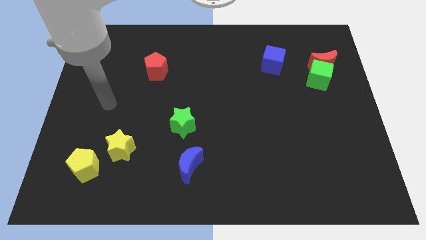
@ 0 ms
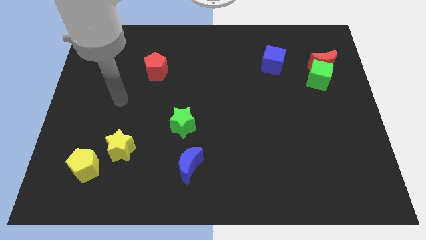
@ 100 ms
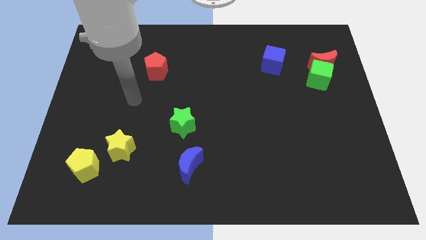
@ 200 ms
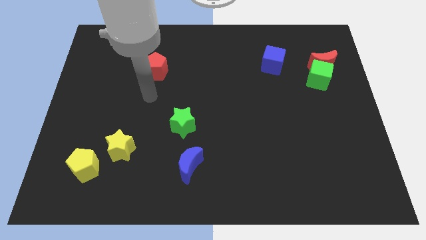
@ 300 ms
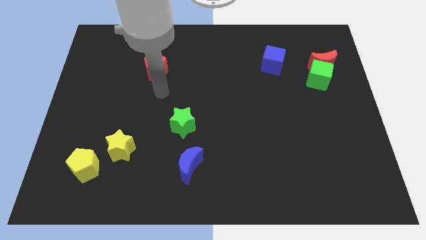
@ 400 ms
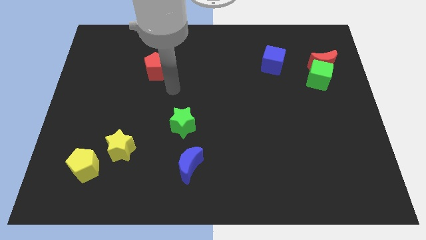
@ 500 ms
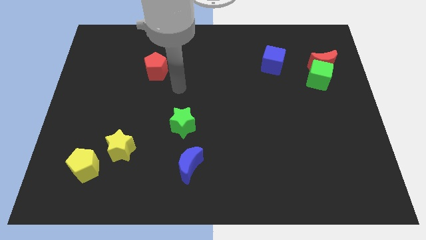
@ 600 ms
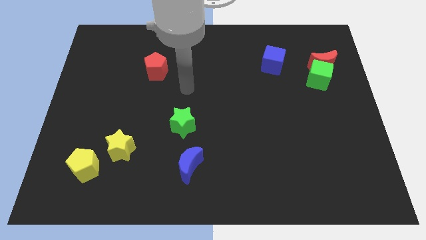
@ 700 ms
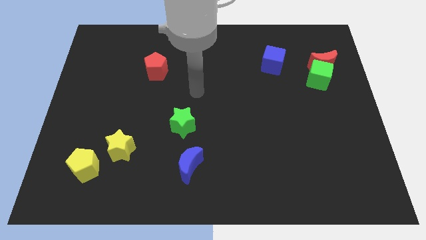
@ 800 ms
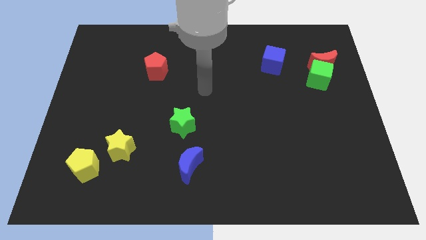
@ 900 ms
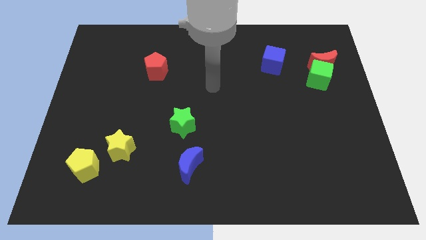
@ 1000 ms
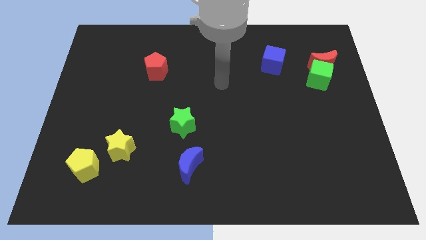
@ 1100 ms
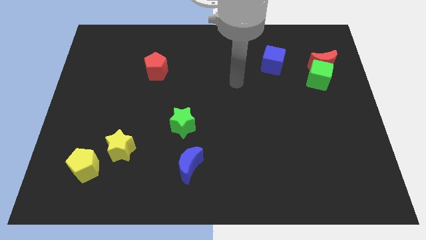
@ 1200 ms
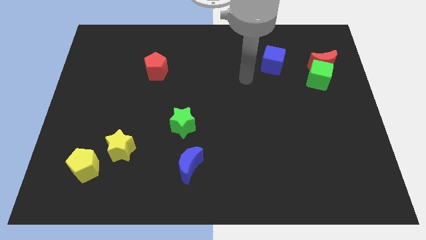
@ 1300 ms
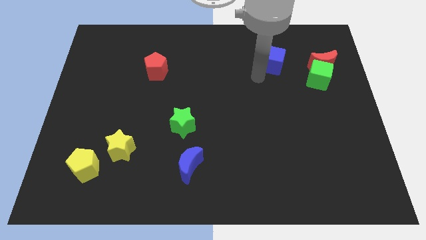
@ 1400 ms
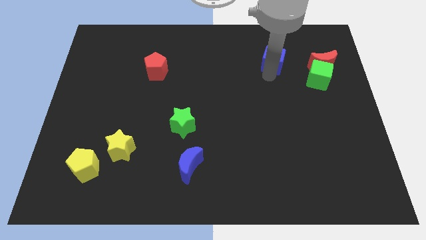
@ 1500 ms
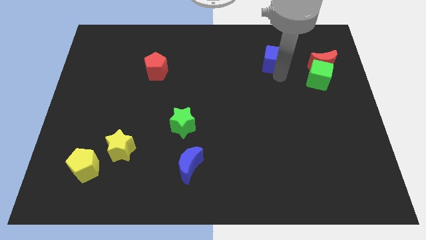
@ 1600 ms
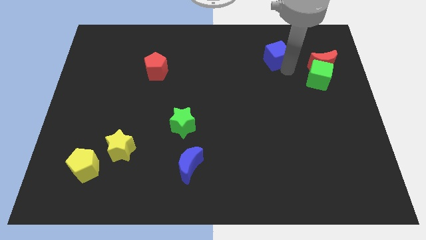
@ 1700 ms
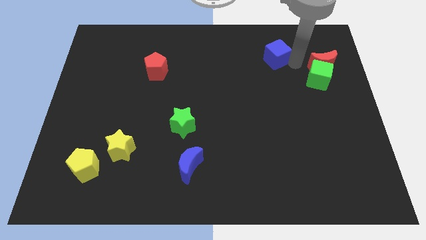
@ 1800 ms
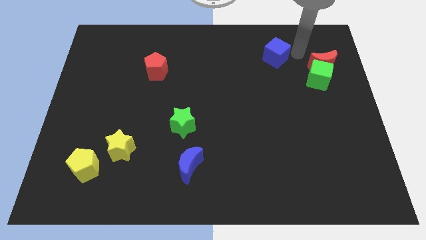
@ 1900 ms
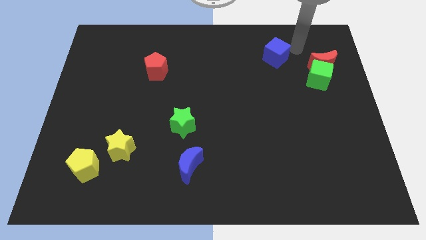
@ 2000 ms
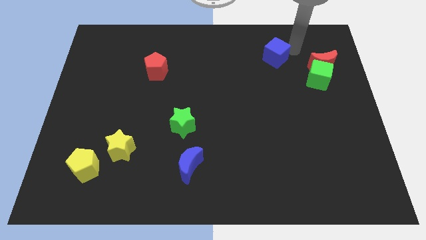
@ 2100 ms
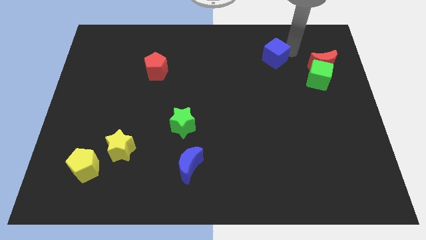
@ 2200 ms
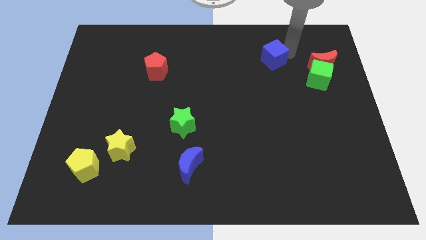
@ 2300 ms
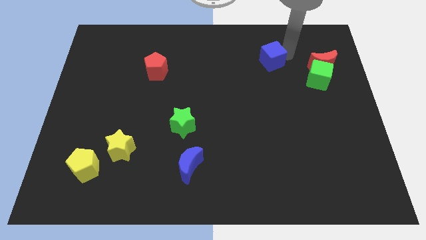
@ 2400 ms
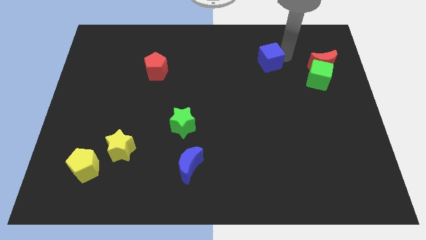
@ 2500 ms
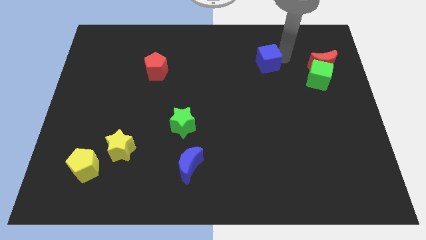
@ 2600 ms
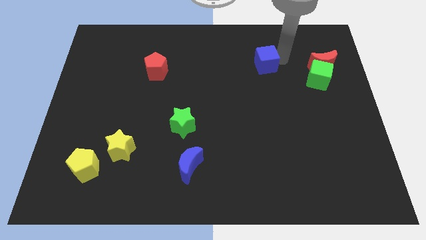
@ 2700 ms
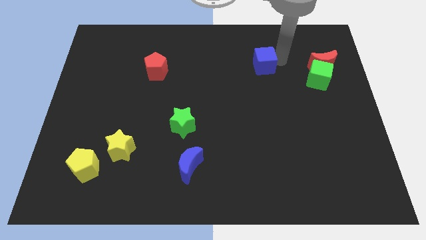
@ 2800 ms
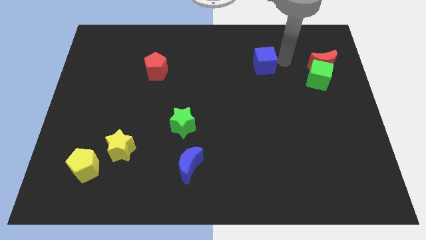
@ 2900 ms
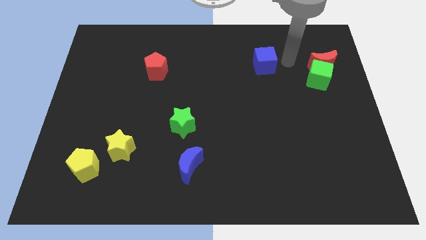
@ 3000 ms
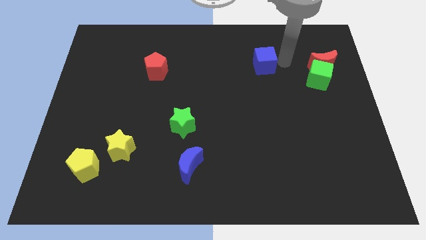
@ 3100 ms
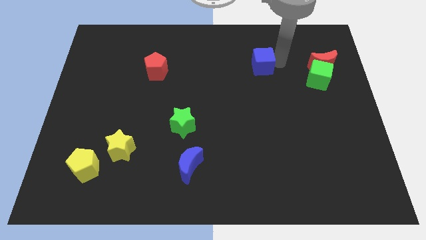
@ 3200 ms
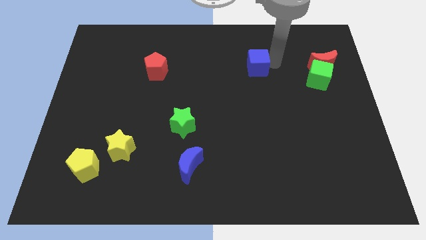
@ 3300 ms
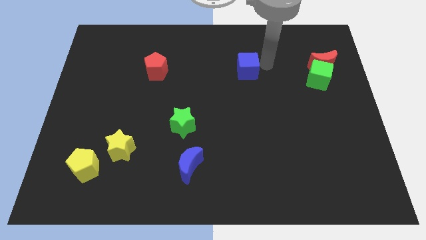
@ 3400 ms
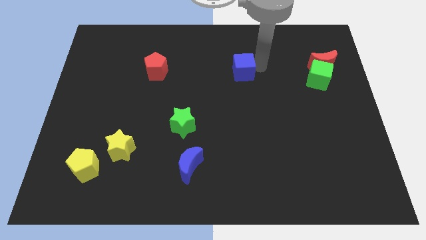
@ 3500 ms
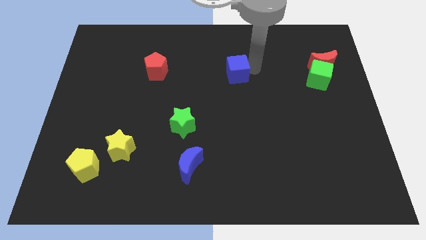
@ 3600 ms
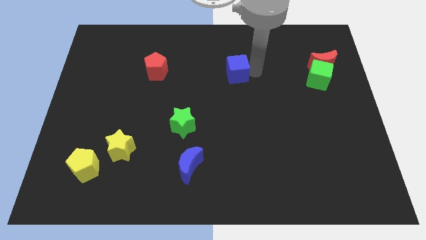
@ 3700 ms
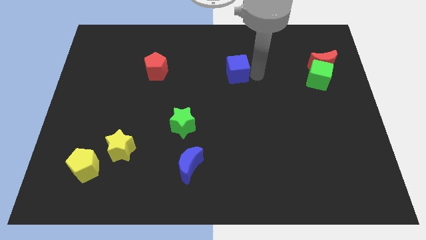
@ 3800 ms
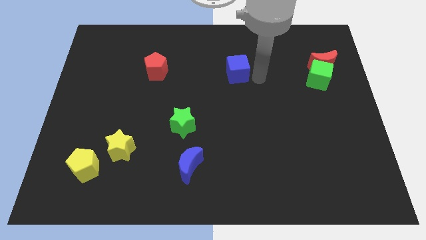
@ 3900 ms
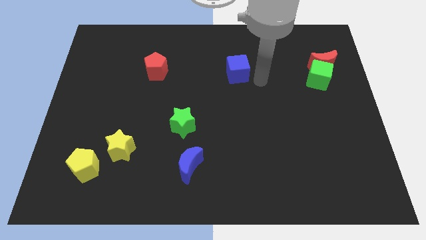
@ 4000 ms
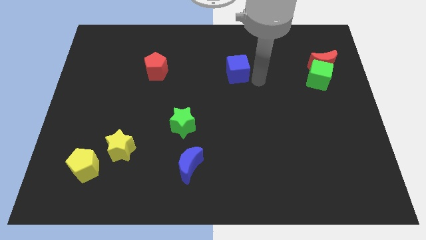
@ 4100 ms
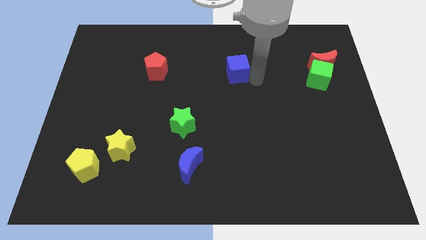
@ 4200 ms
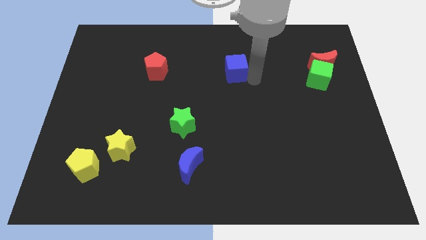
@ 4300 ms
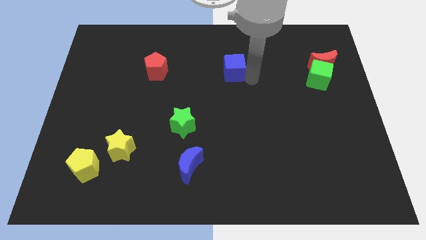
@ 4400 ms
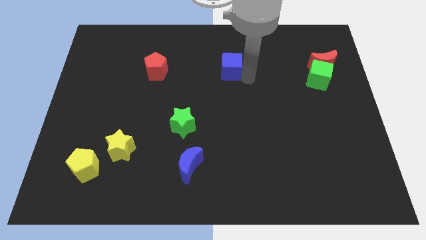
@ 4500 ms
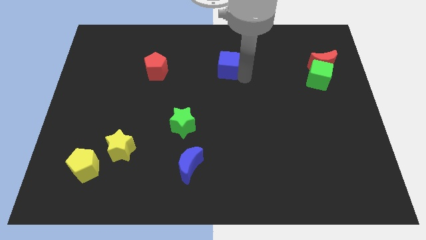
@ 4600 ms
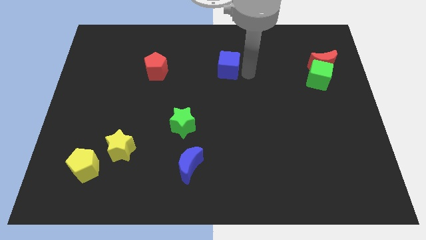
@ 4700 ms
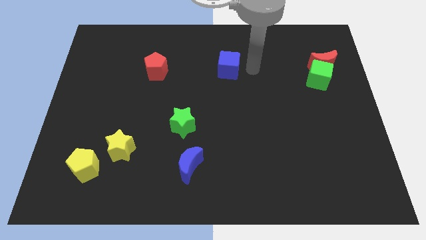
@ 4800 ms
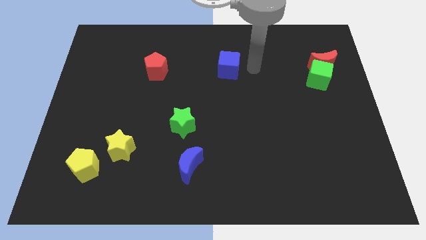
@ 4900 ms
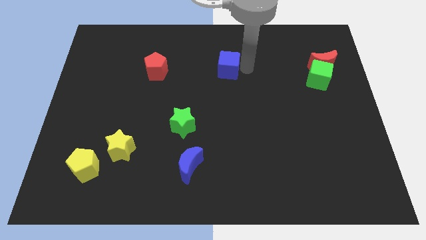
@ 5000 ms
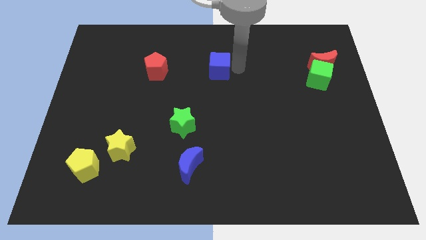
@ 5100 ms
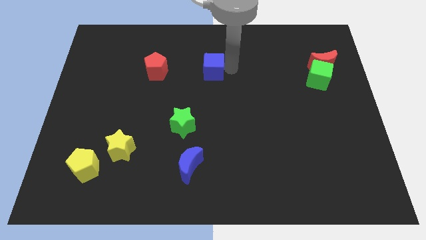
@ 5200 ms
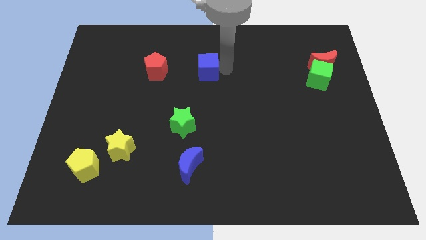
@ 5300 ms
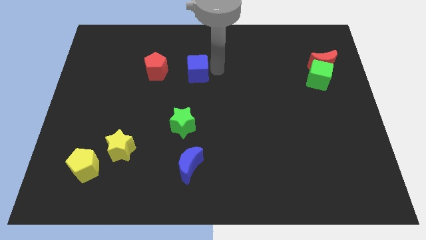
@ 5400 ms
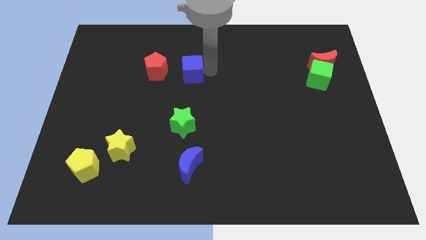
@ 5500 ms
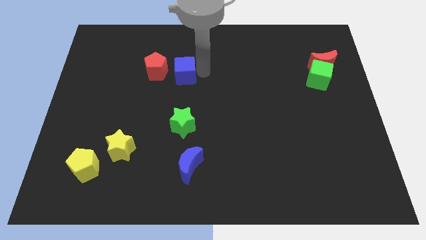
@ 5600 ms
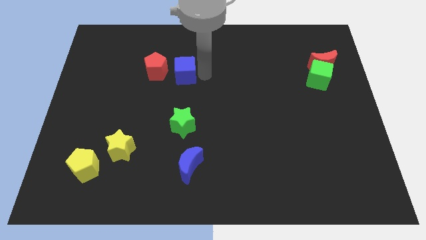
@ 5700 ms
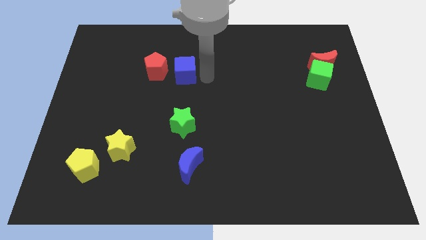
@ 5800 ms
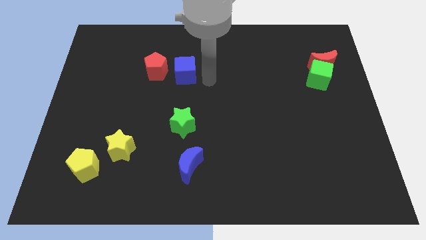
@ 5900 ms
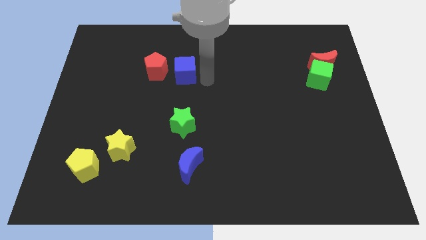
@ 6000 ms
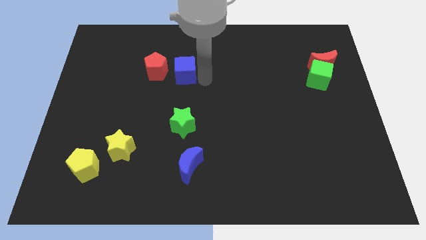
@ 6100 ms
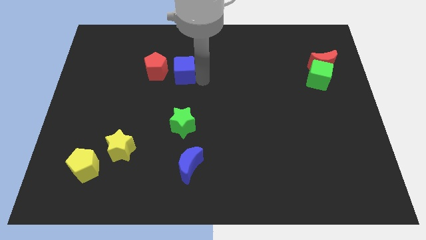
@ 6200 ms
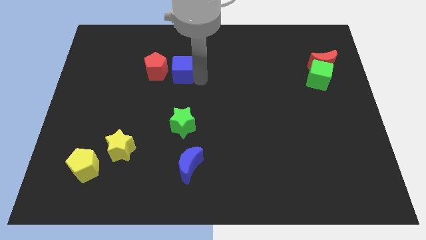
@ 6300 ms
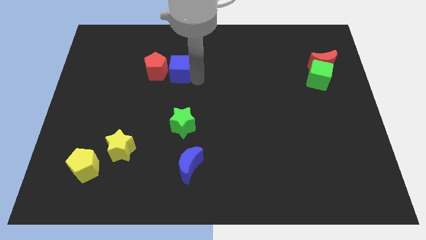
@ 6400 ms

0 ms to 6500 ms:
put the blue cube towards the red pentagon

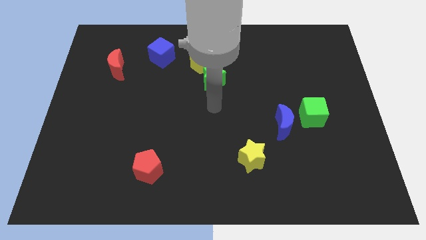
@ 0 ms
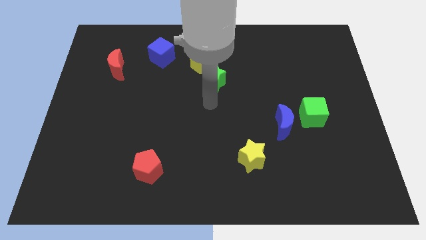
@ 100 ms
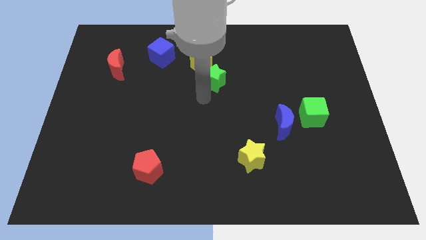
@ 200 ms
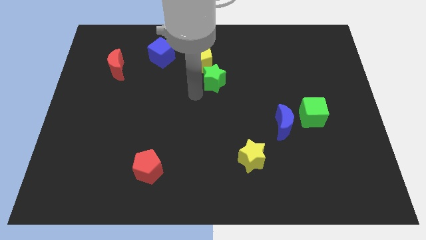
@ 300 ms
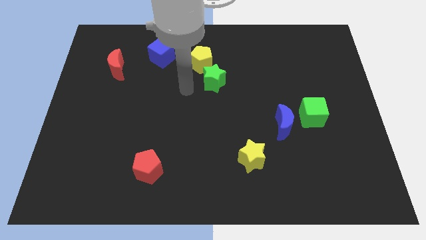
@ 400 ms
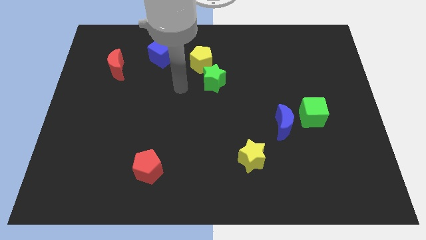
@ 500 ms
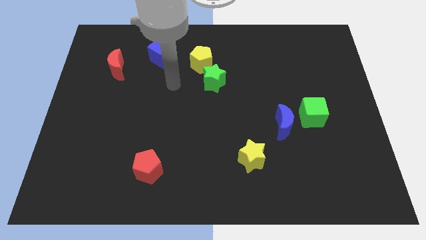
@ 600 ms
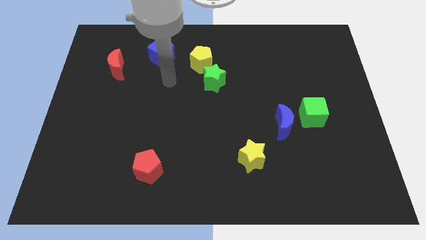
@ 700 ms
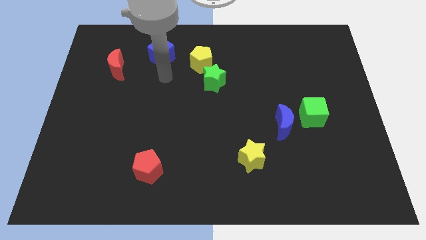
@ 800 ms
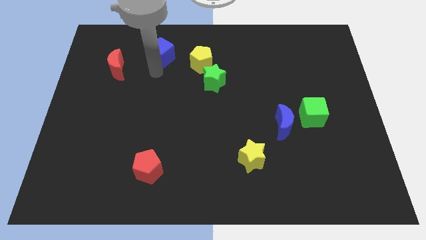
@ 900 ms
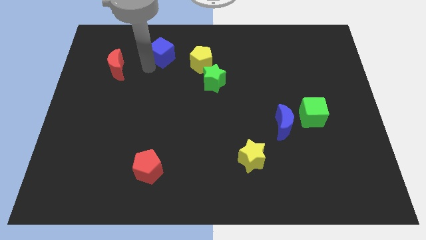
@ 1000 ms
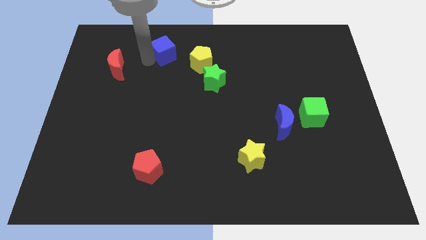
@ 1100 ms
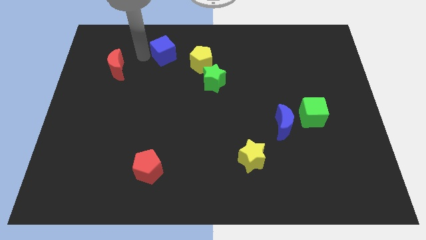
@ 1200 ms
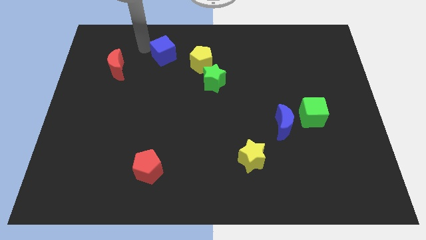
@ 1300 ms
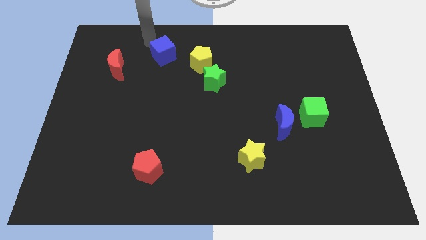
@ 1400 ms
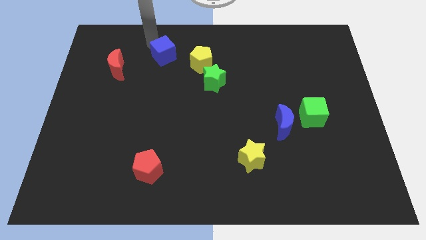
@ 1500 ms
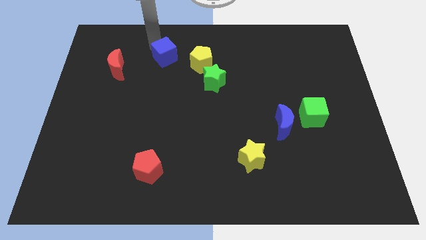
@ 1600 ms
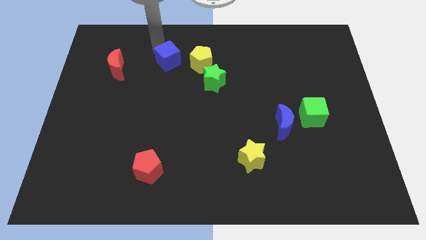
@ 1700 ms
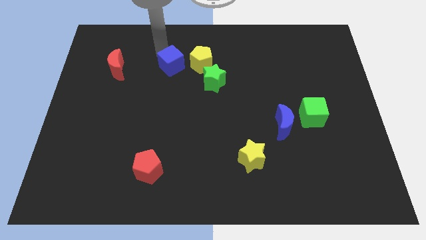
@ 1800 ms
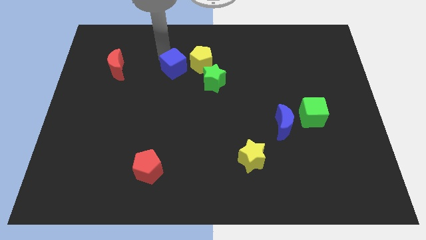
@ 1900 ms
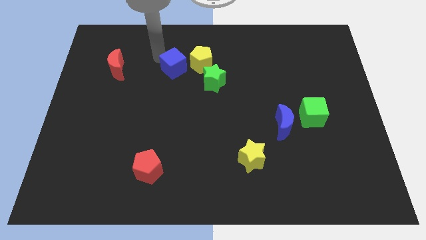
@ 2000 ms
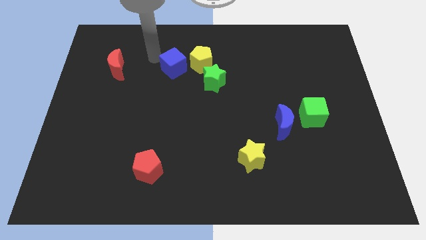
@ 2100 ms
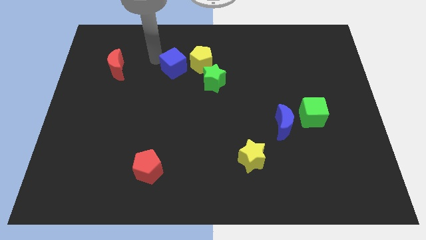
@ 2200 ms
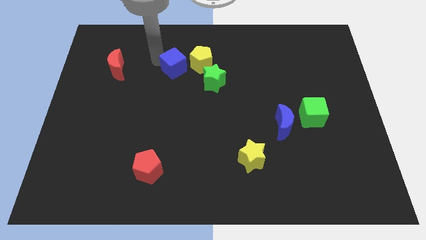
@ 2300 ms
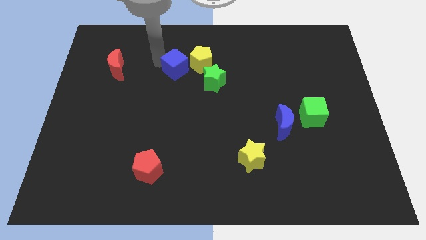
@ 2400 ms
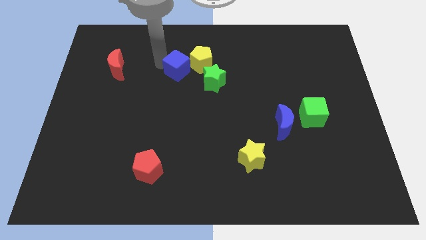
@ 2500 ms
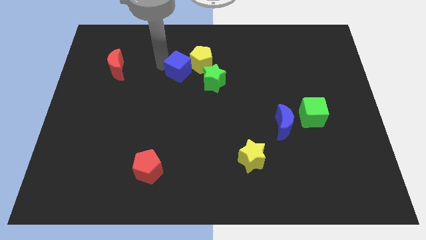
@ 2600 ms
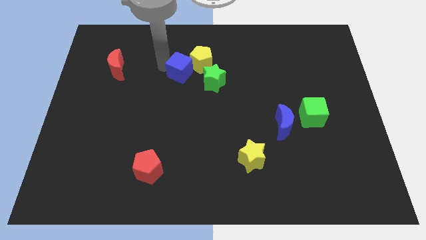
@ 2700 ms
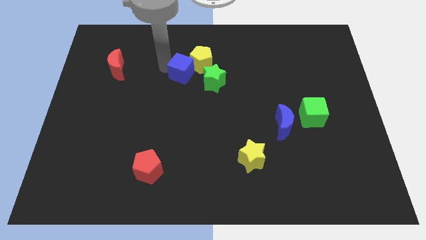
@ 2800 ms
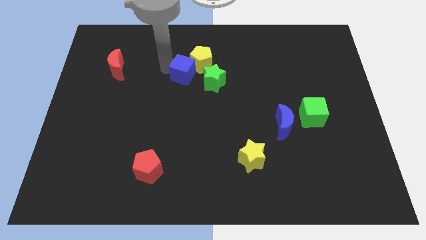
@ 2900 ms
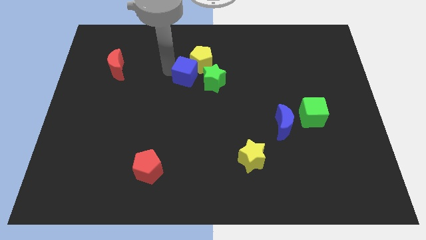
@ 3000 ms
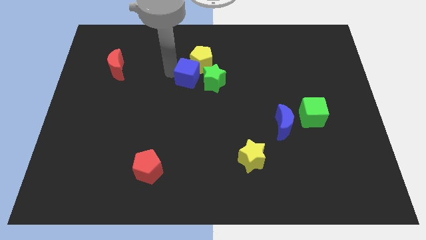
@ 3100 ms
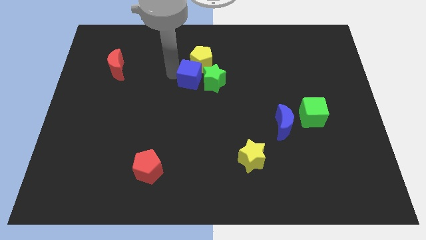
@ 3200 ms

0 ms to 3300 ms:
put the blue cube towards the green star
